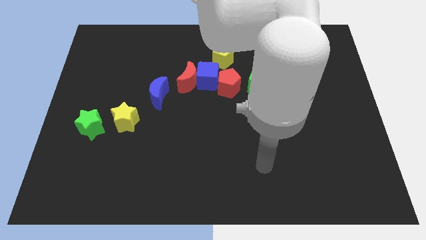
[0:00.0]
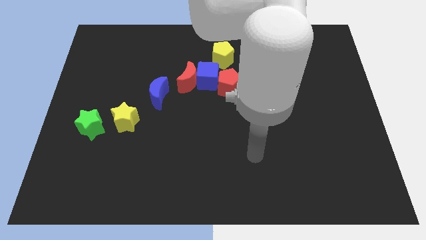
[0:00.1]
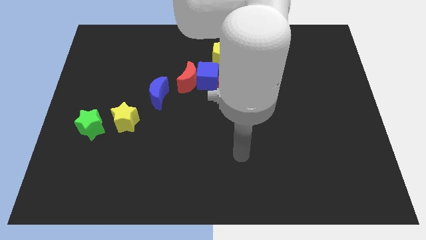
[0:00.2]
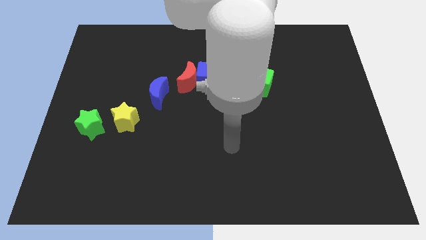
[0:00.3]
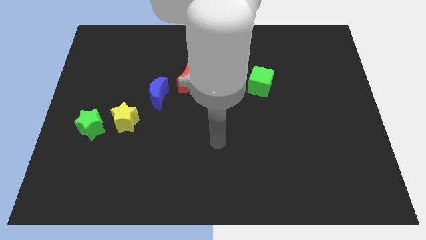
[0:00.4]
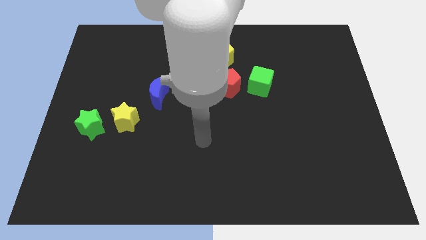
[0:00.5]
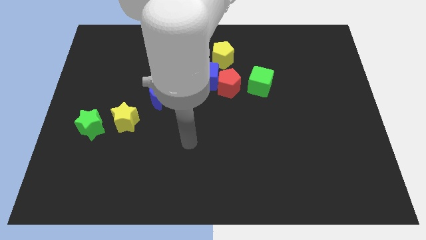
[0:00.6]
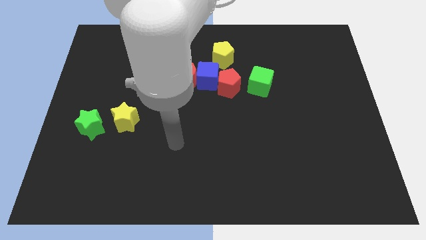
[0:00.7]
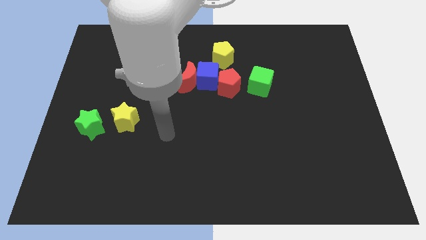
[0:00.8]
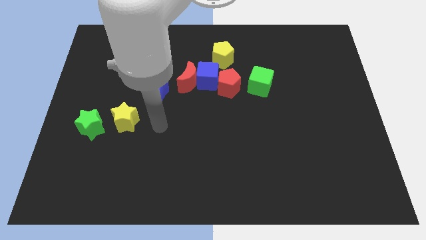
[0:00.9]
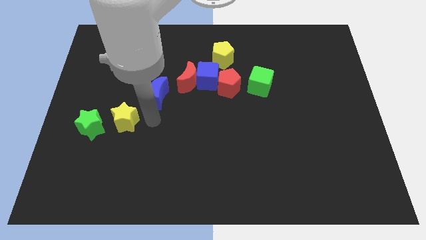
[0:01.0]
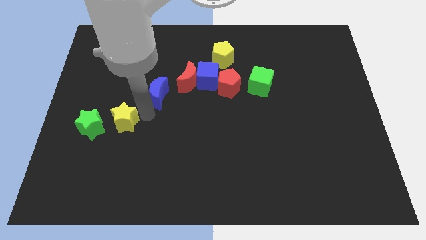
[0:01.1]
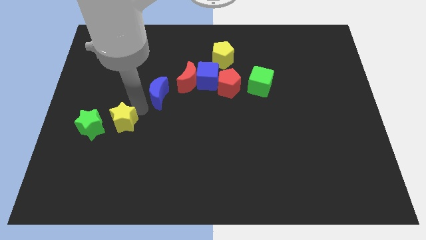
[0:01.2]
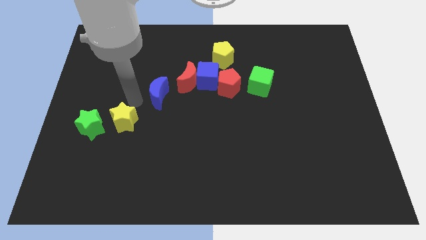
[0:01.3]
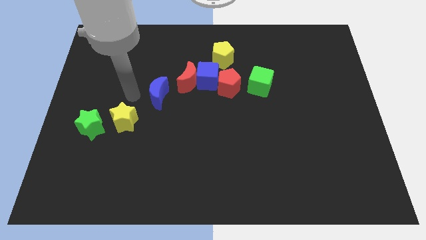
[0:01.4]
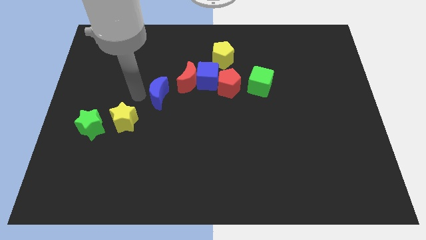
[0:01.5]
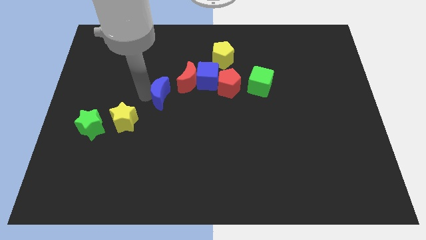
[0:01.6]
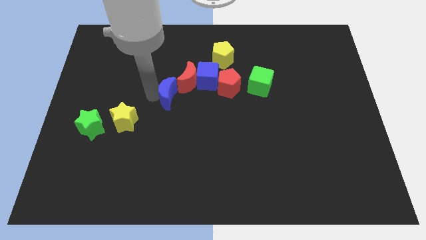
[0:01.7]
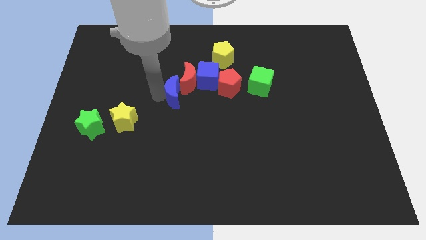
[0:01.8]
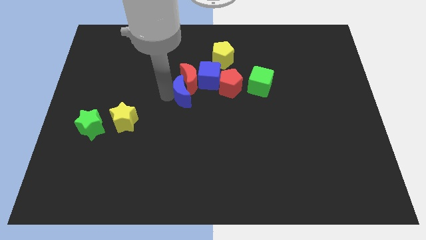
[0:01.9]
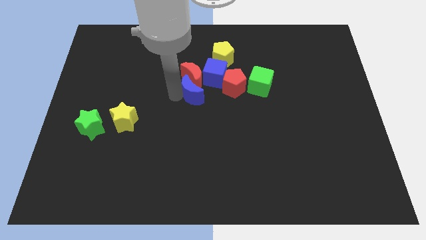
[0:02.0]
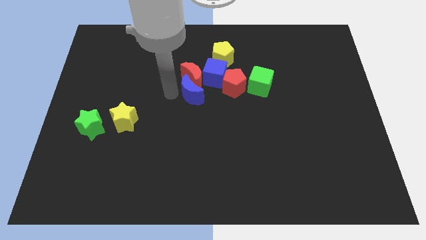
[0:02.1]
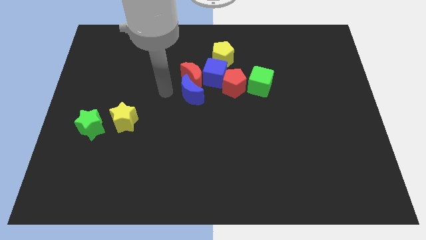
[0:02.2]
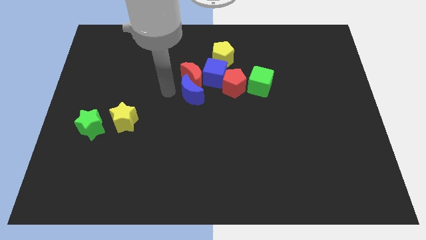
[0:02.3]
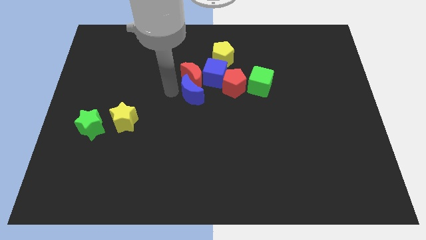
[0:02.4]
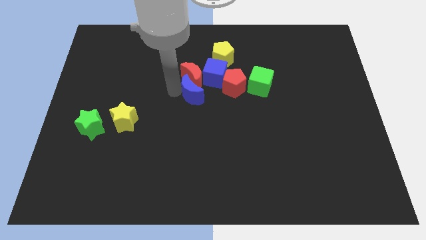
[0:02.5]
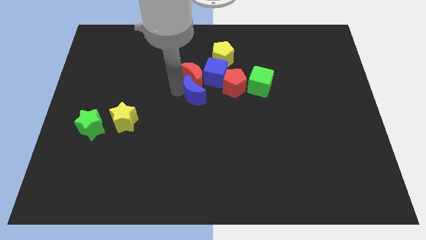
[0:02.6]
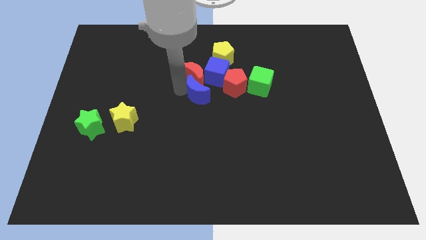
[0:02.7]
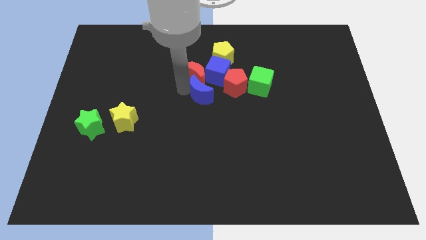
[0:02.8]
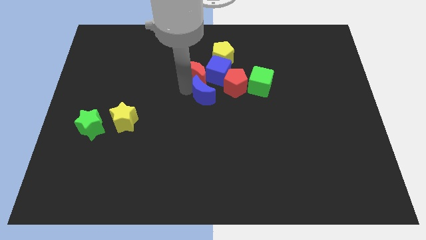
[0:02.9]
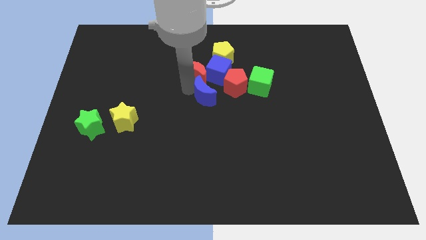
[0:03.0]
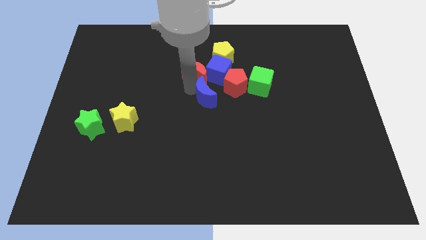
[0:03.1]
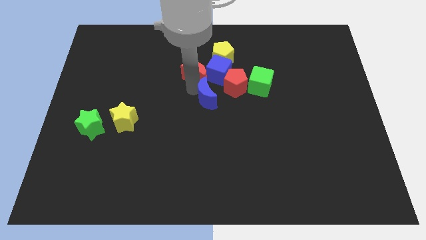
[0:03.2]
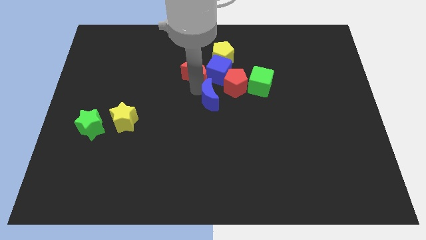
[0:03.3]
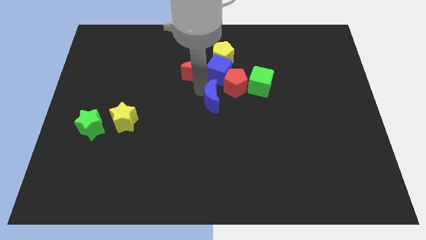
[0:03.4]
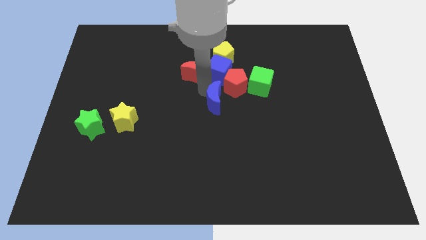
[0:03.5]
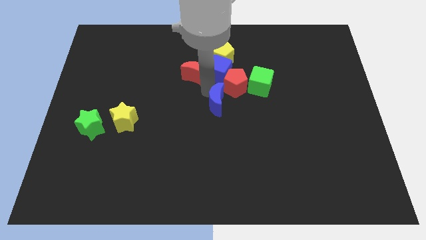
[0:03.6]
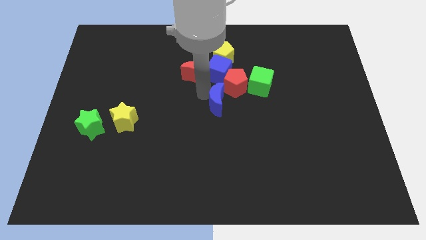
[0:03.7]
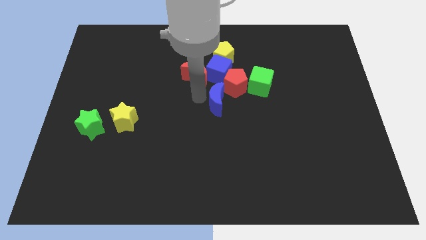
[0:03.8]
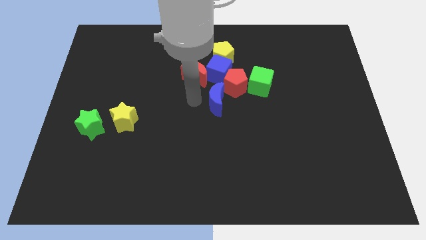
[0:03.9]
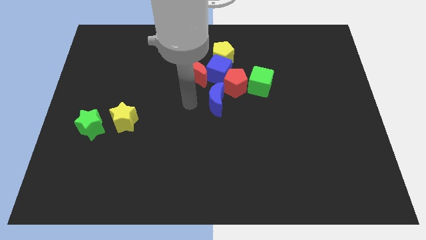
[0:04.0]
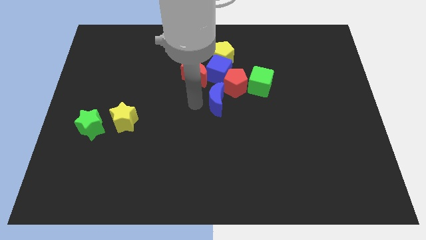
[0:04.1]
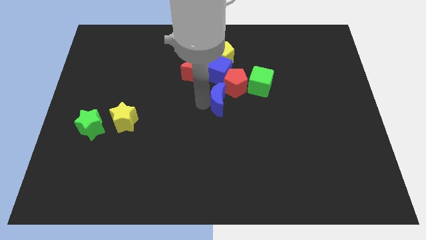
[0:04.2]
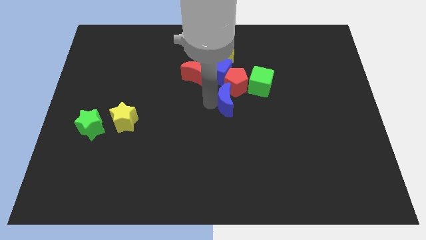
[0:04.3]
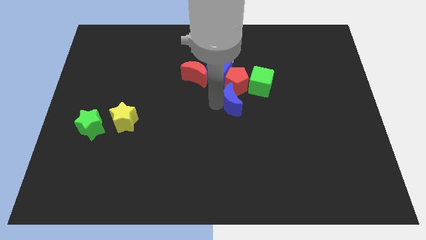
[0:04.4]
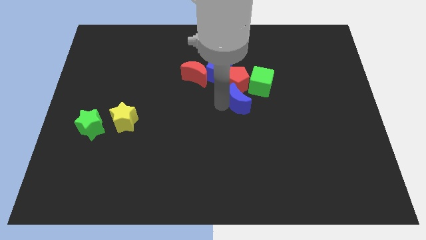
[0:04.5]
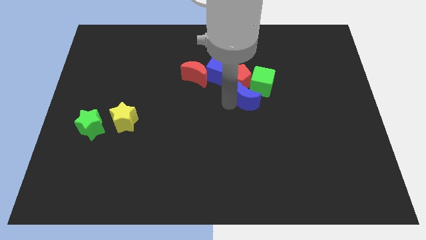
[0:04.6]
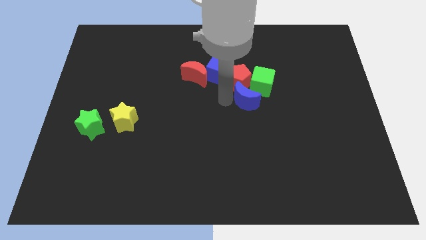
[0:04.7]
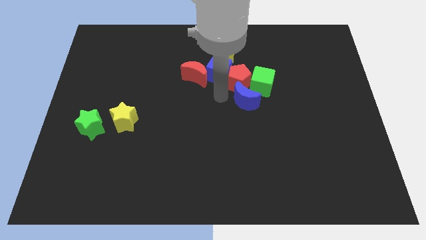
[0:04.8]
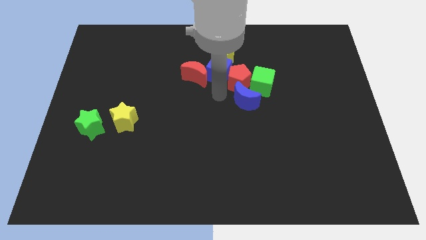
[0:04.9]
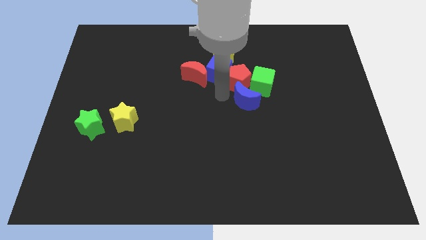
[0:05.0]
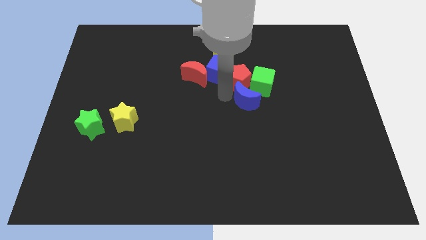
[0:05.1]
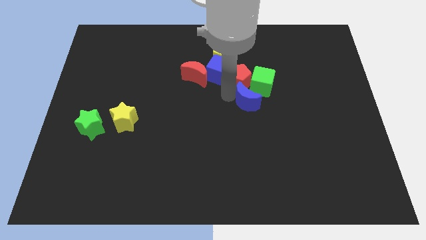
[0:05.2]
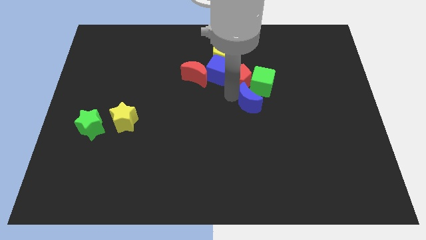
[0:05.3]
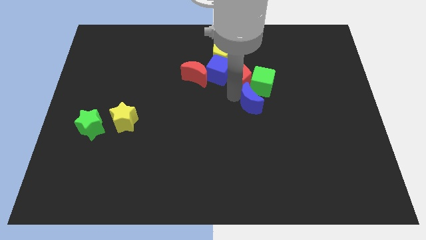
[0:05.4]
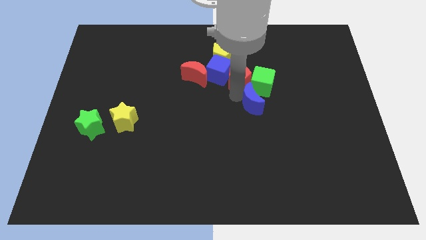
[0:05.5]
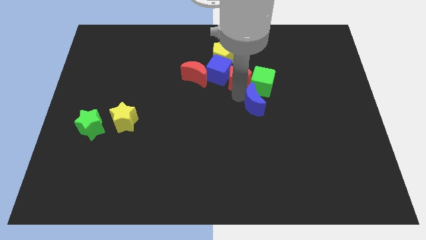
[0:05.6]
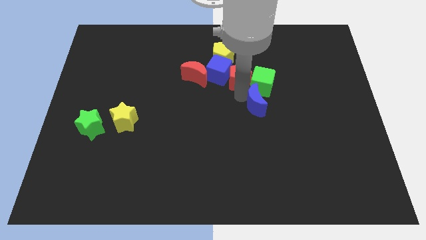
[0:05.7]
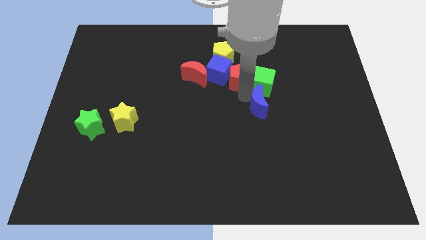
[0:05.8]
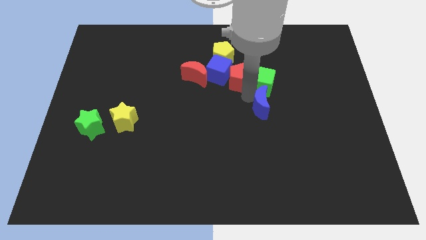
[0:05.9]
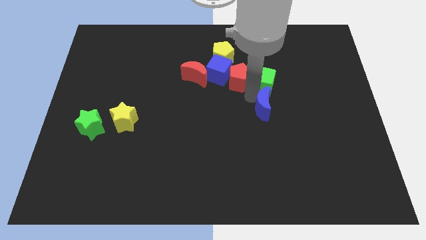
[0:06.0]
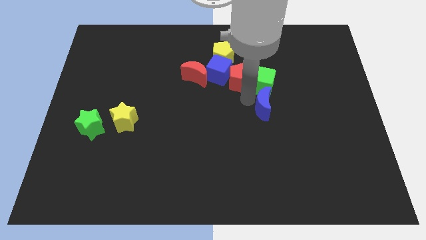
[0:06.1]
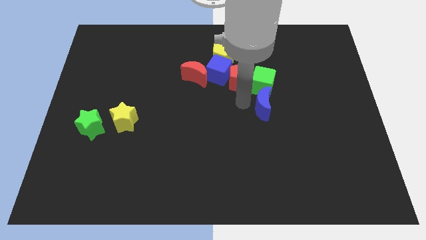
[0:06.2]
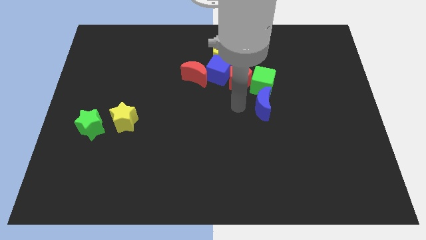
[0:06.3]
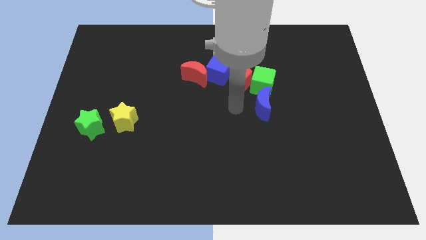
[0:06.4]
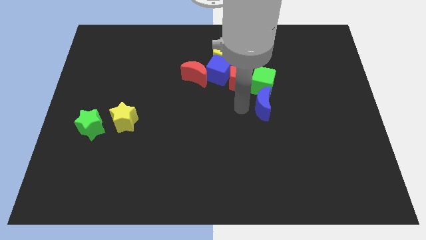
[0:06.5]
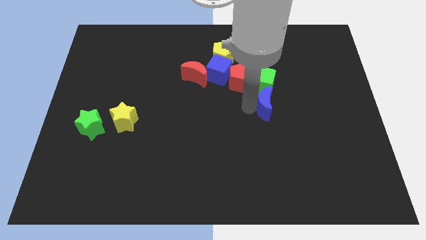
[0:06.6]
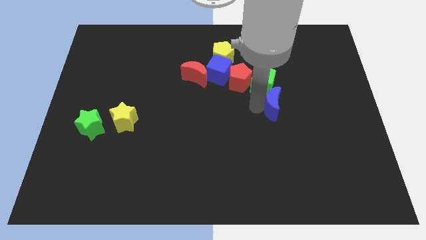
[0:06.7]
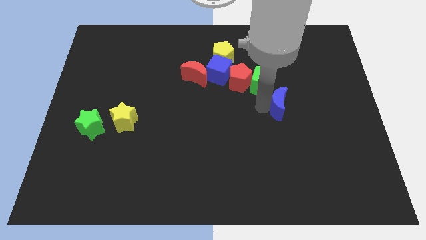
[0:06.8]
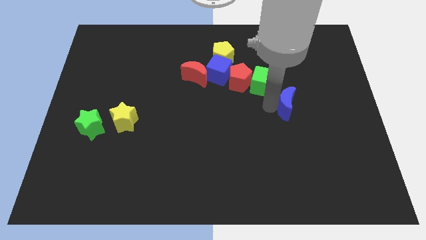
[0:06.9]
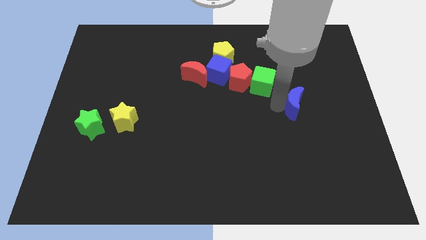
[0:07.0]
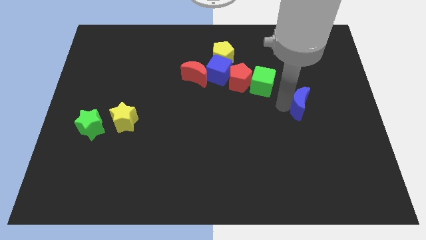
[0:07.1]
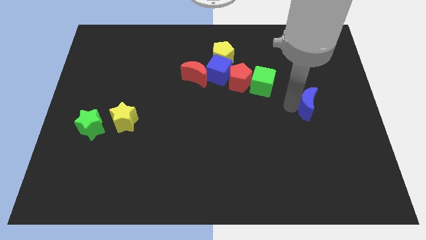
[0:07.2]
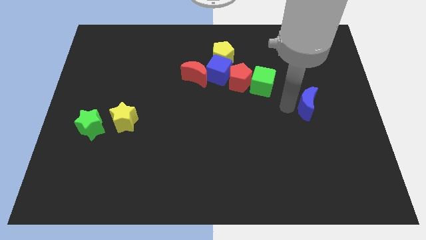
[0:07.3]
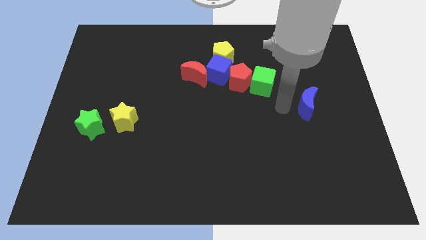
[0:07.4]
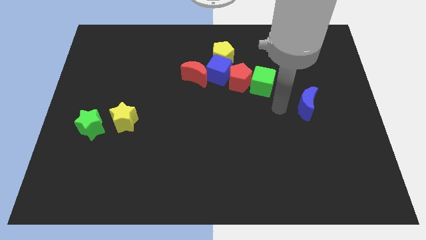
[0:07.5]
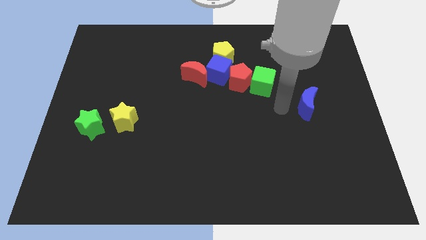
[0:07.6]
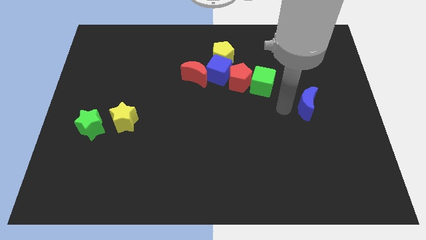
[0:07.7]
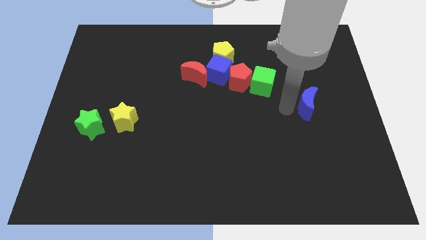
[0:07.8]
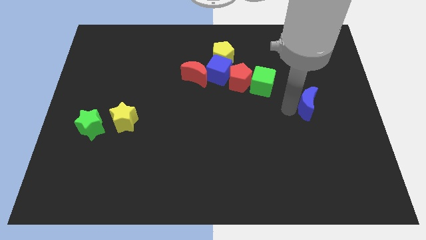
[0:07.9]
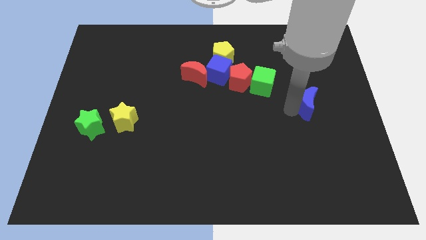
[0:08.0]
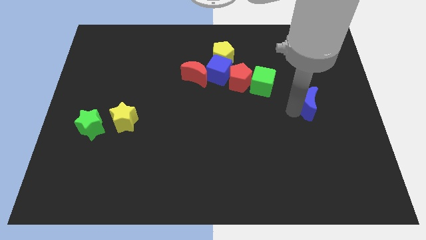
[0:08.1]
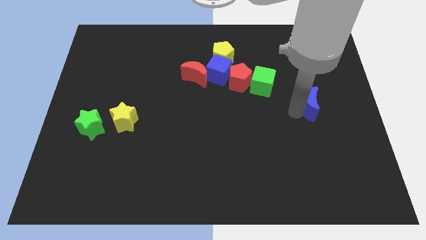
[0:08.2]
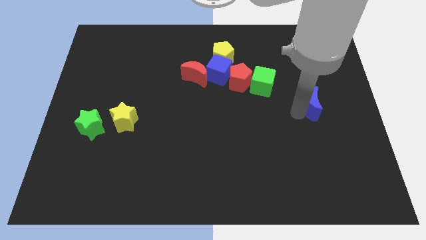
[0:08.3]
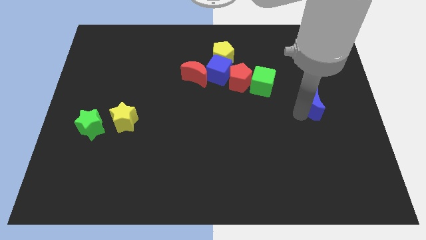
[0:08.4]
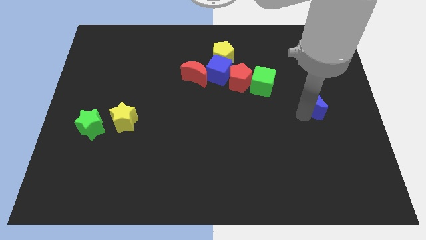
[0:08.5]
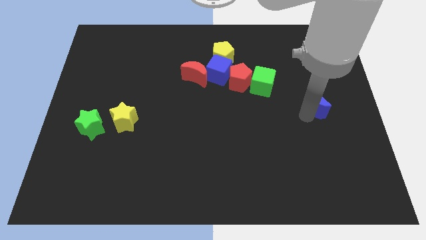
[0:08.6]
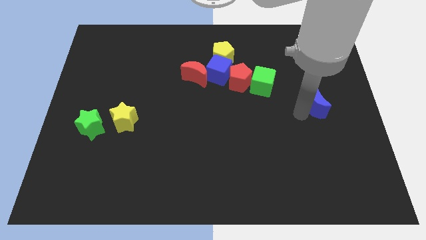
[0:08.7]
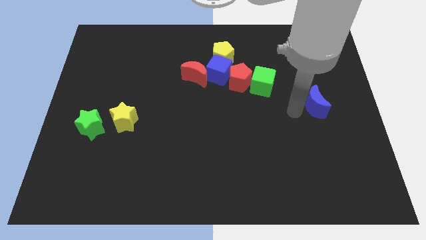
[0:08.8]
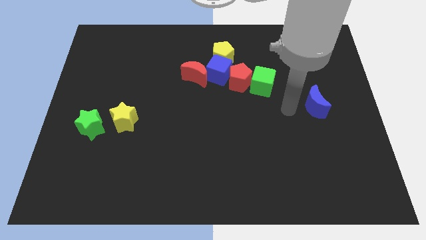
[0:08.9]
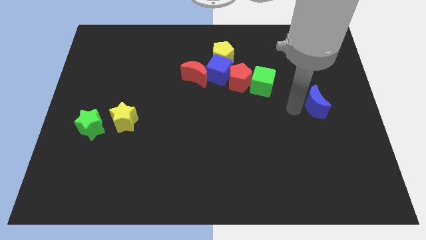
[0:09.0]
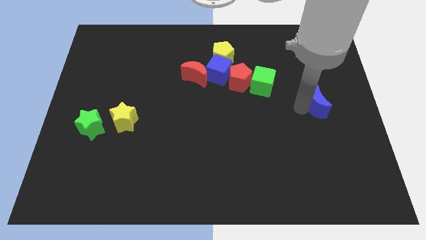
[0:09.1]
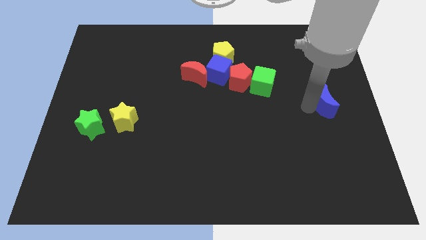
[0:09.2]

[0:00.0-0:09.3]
push the blue moon to the center right
